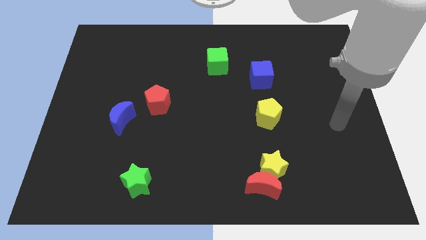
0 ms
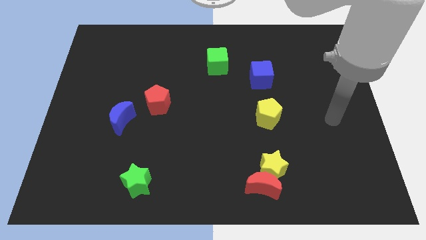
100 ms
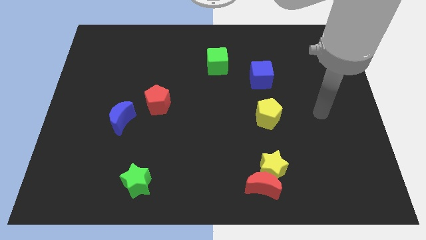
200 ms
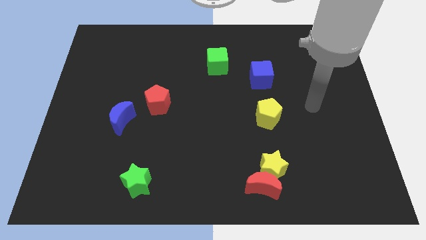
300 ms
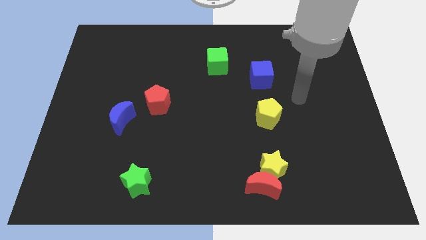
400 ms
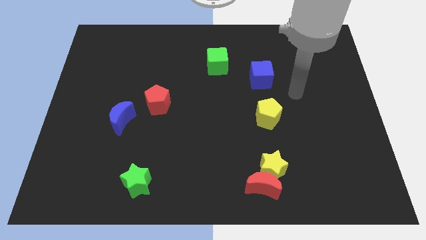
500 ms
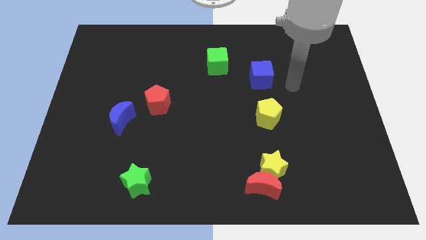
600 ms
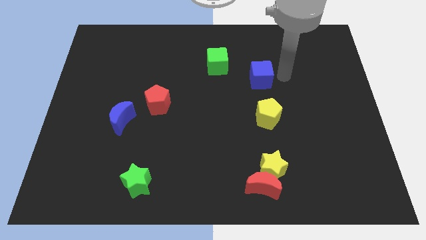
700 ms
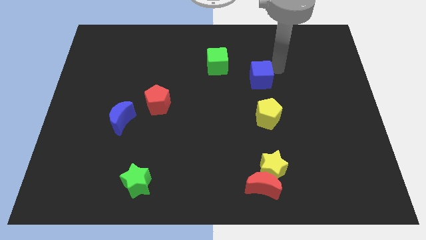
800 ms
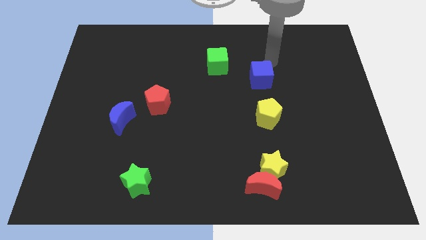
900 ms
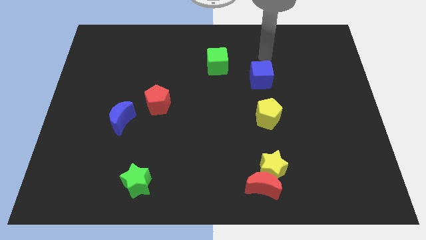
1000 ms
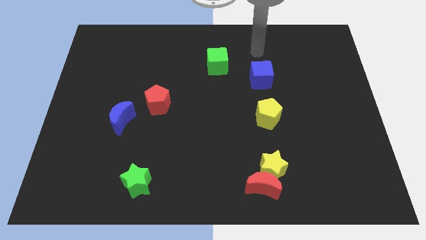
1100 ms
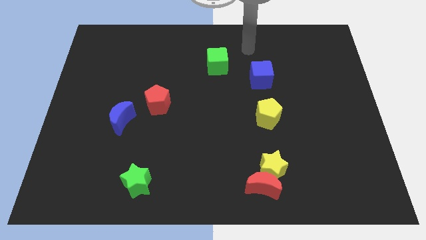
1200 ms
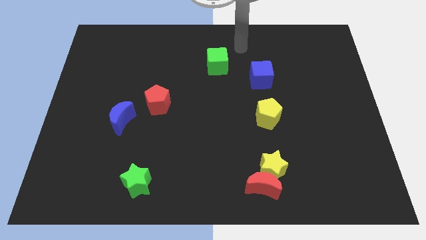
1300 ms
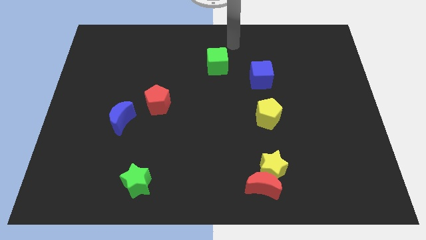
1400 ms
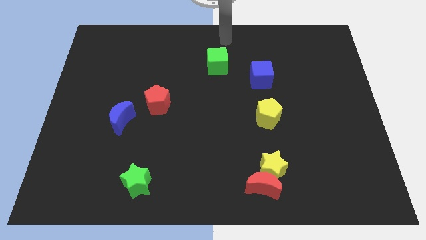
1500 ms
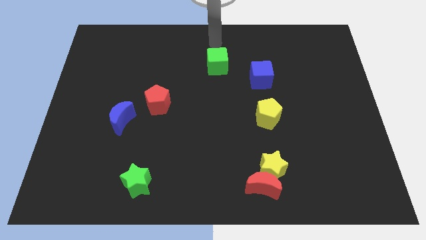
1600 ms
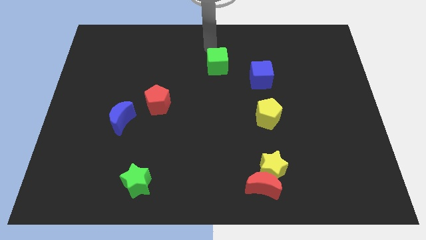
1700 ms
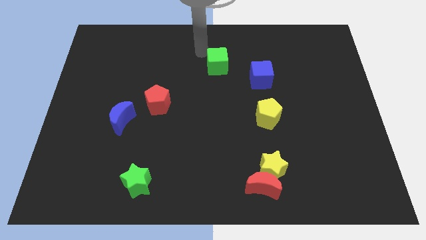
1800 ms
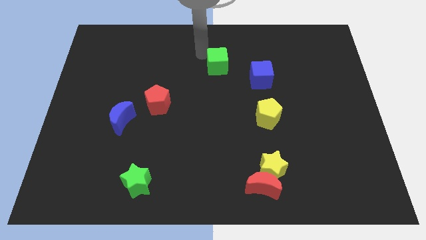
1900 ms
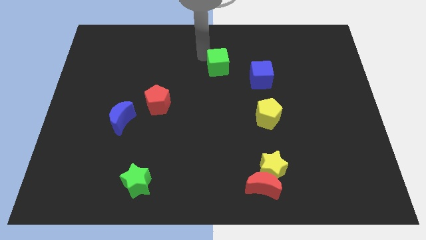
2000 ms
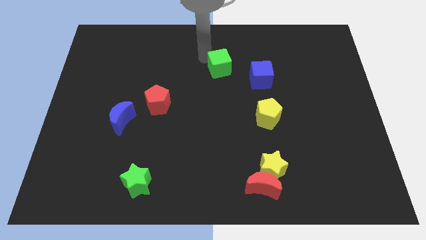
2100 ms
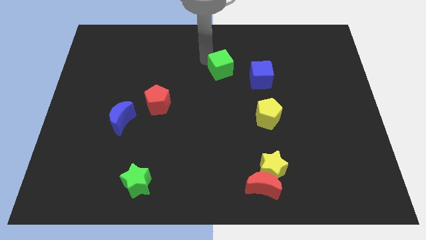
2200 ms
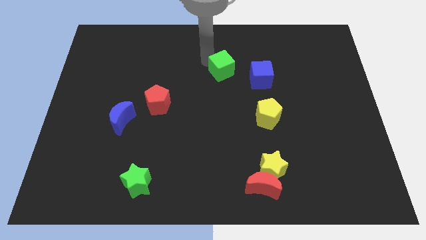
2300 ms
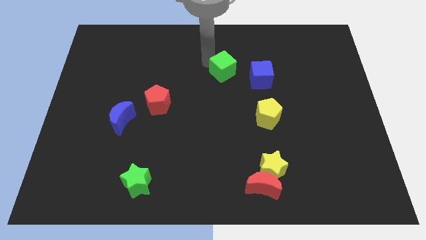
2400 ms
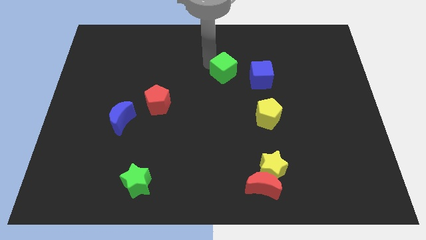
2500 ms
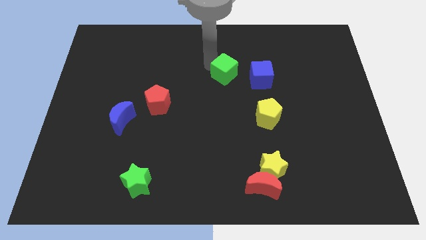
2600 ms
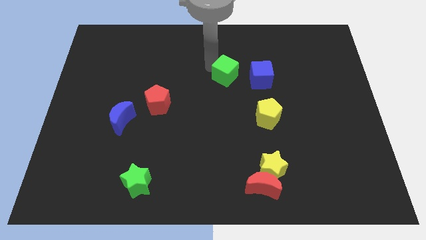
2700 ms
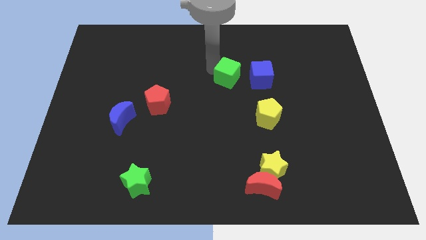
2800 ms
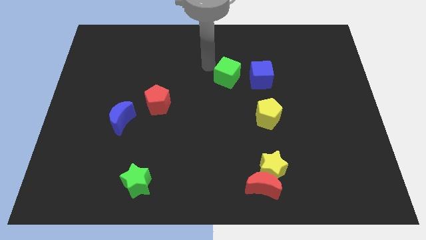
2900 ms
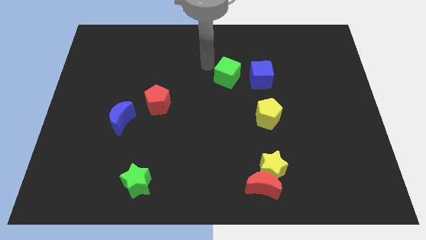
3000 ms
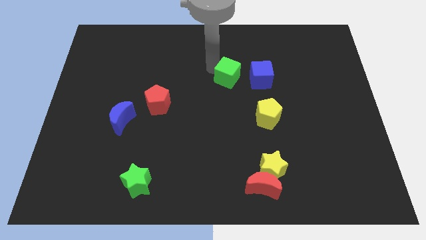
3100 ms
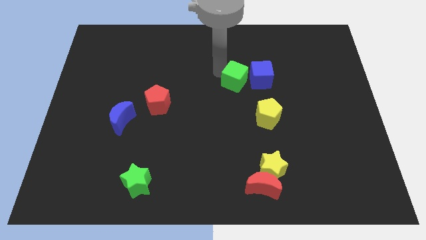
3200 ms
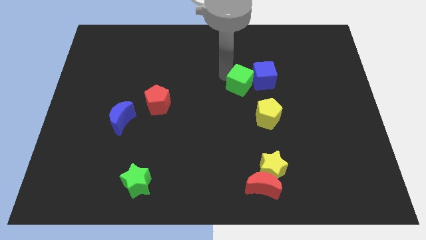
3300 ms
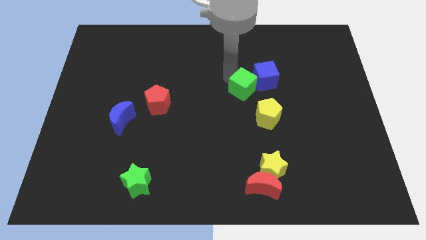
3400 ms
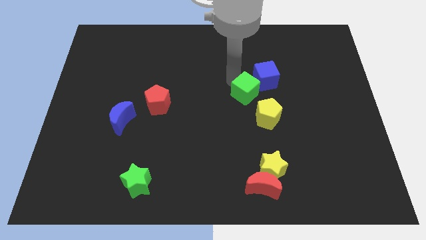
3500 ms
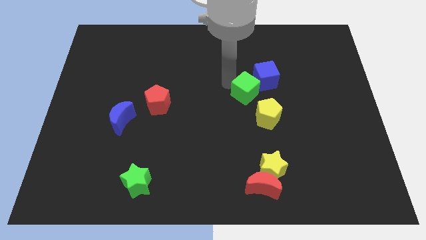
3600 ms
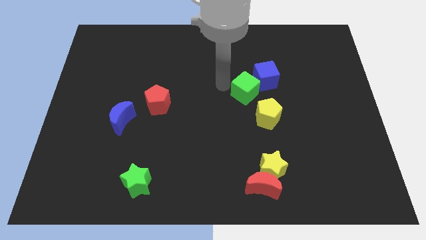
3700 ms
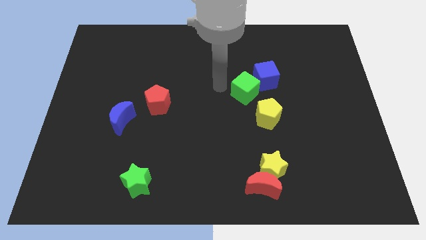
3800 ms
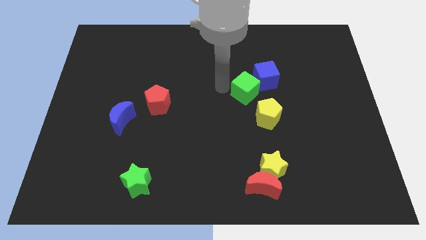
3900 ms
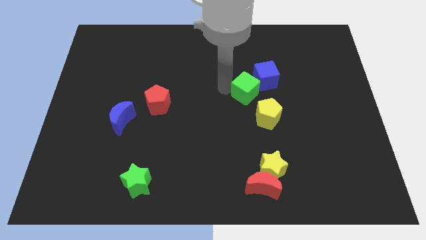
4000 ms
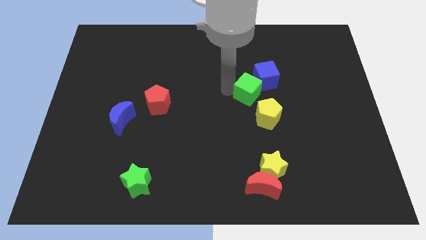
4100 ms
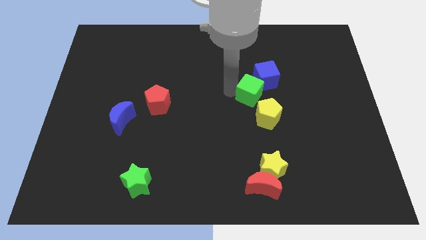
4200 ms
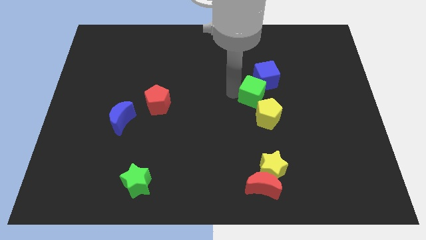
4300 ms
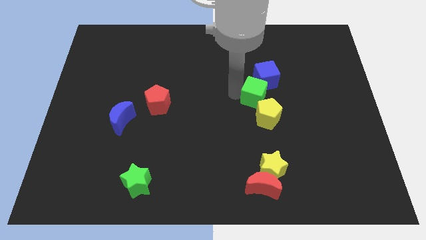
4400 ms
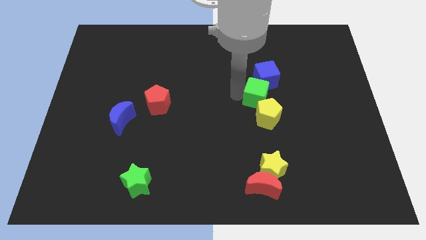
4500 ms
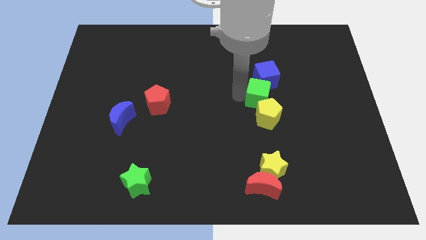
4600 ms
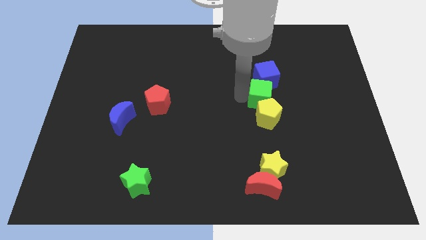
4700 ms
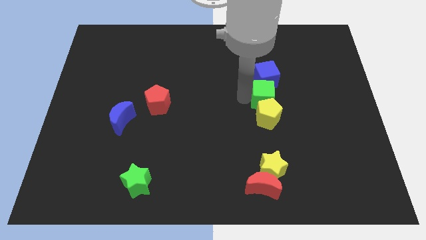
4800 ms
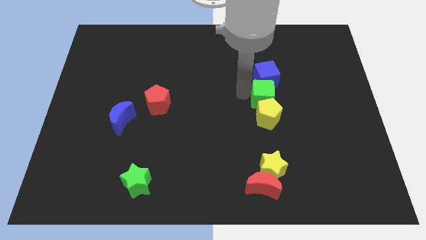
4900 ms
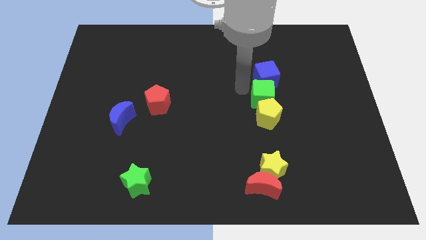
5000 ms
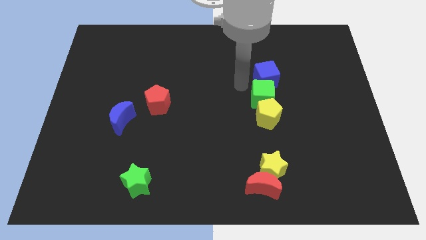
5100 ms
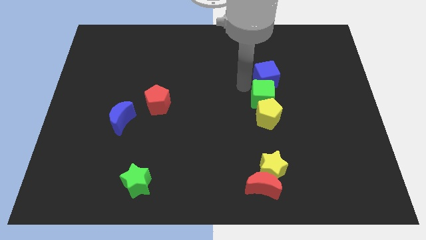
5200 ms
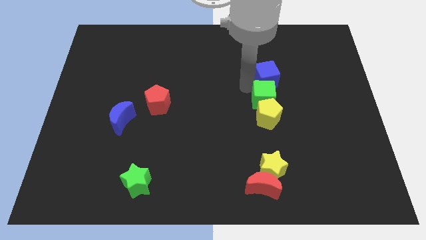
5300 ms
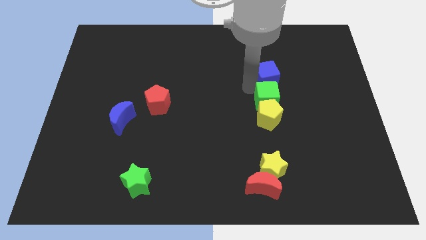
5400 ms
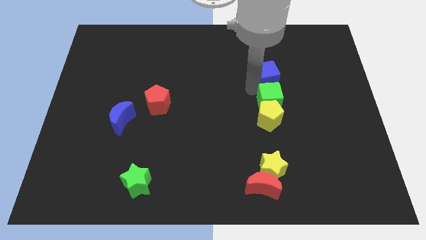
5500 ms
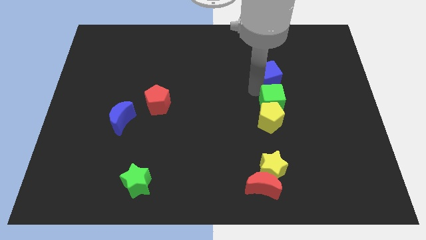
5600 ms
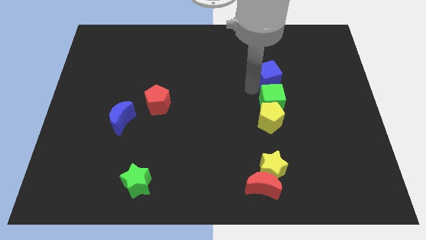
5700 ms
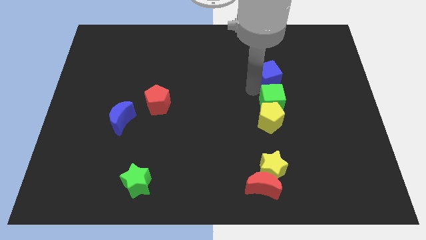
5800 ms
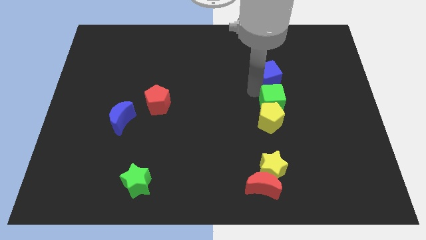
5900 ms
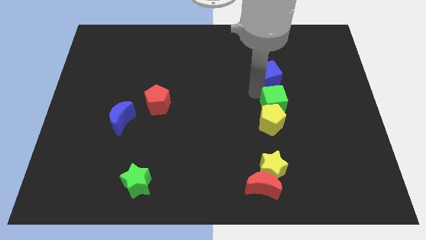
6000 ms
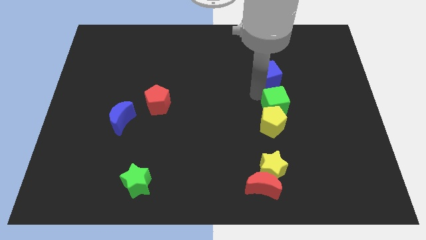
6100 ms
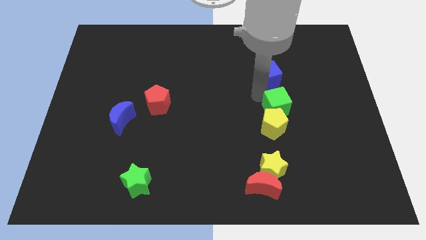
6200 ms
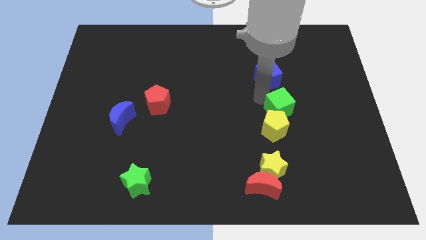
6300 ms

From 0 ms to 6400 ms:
push the green cube diagonally downwards and to the right

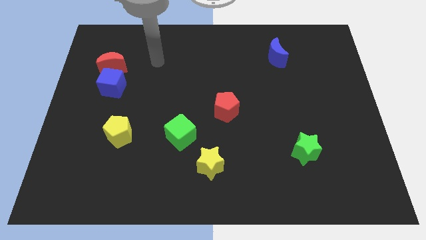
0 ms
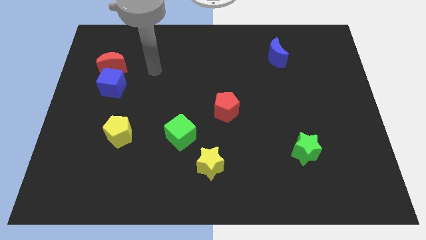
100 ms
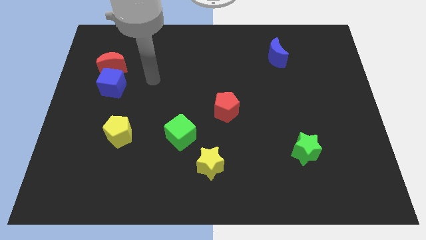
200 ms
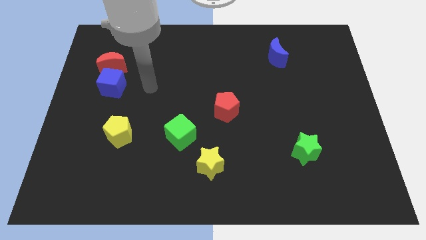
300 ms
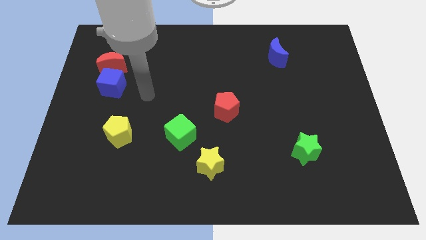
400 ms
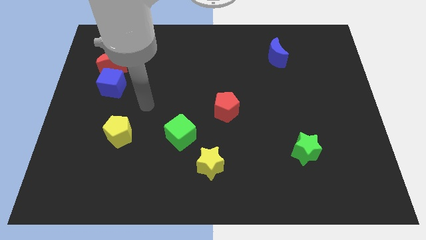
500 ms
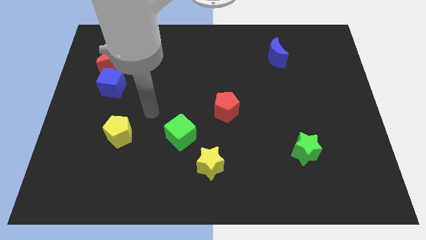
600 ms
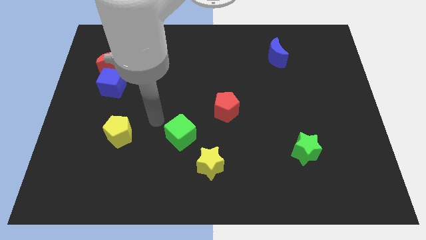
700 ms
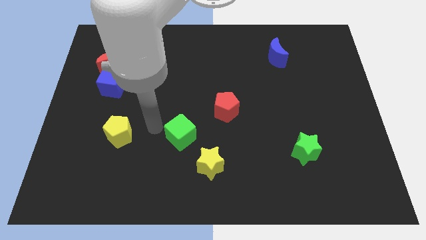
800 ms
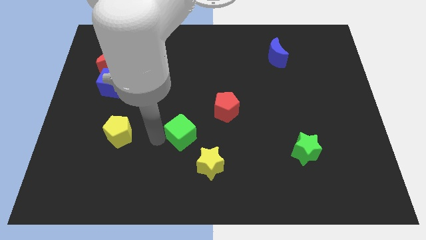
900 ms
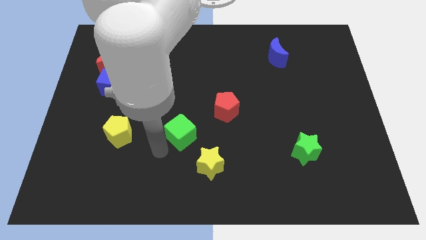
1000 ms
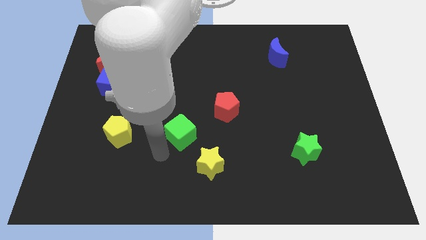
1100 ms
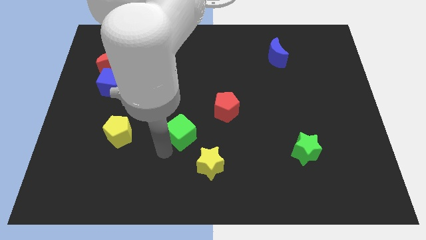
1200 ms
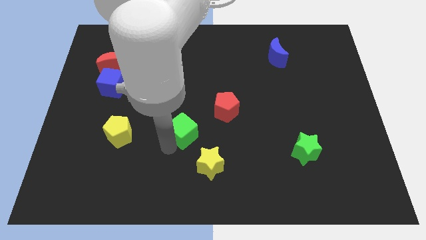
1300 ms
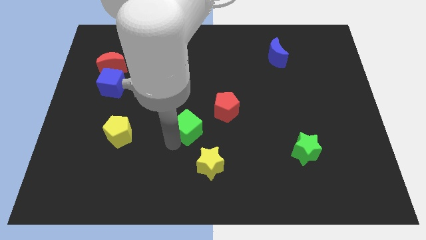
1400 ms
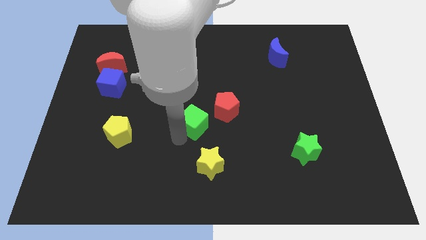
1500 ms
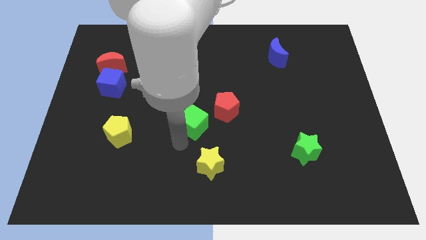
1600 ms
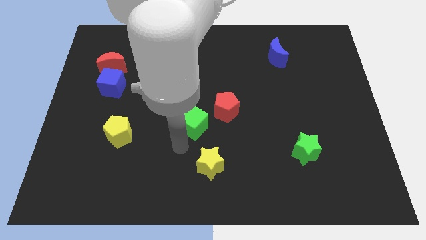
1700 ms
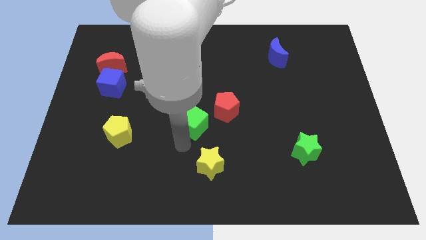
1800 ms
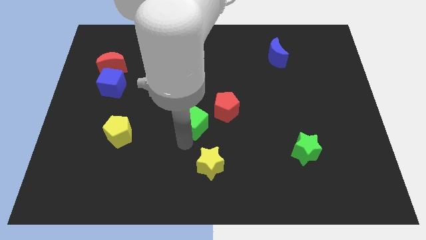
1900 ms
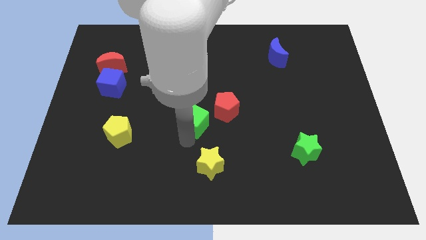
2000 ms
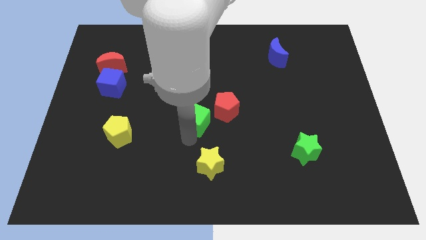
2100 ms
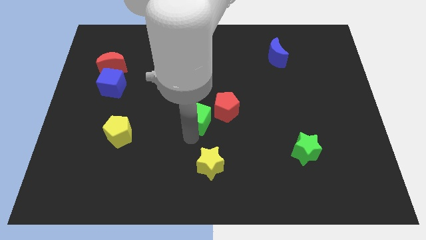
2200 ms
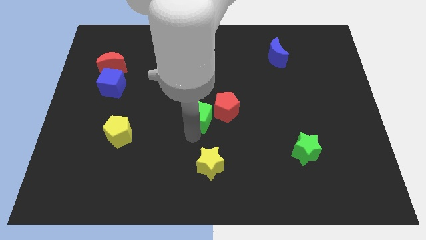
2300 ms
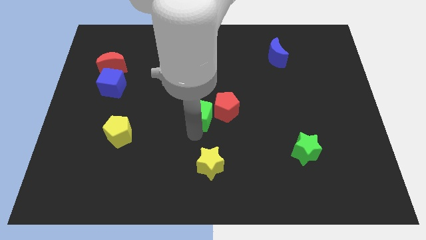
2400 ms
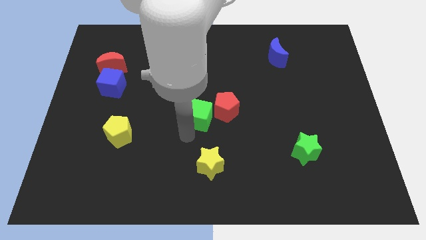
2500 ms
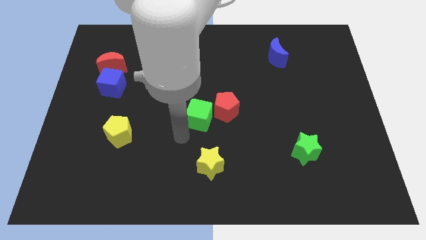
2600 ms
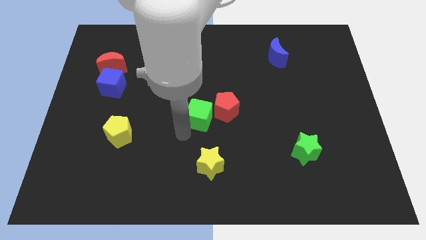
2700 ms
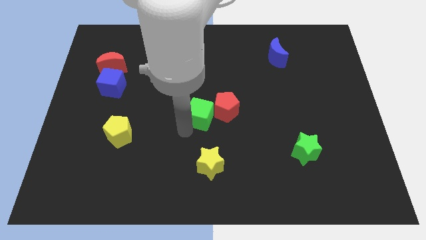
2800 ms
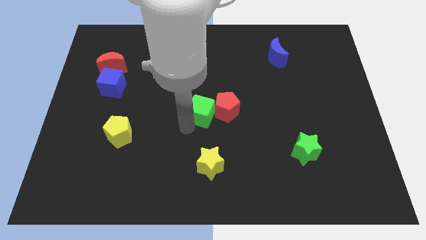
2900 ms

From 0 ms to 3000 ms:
move the green cube diagonally up and right somewhat
